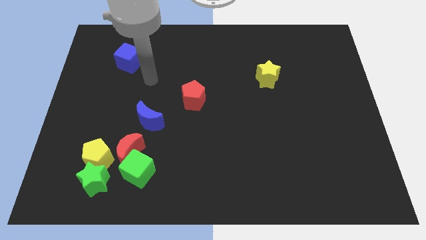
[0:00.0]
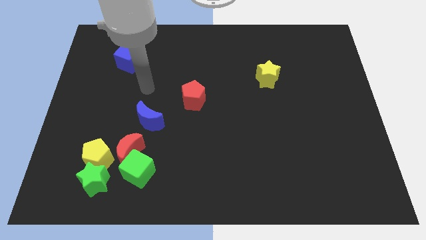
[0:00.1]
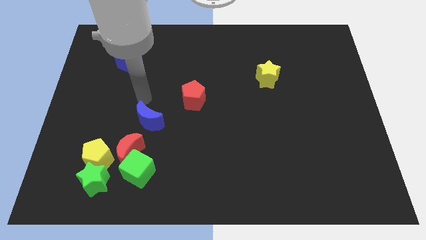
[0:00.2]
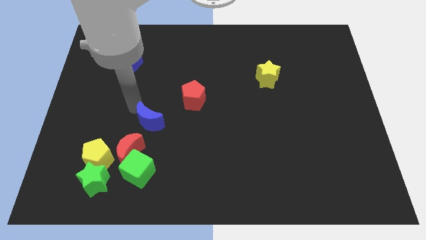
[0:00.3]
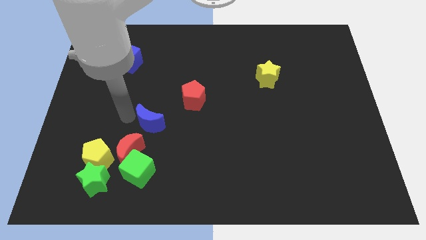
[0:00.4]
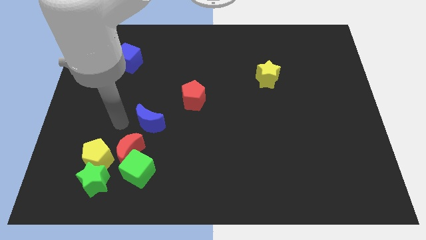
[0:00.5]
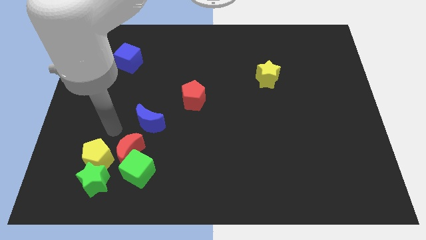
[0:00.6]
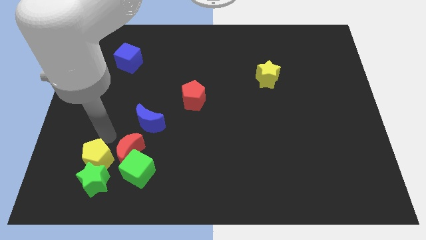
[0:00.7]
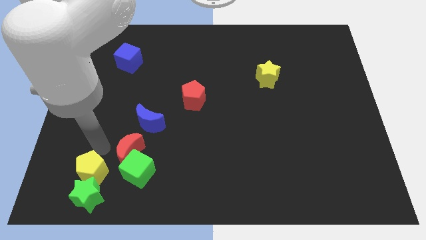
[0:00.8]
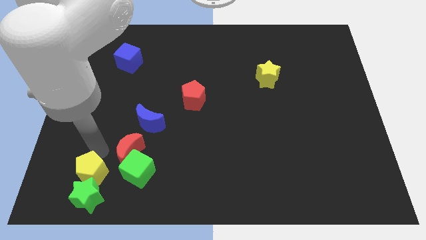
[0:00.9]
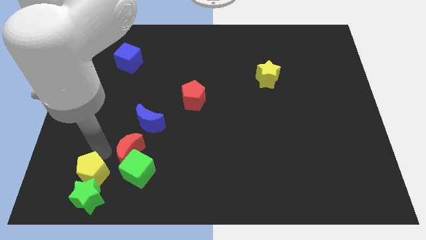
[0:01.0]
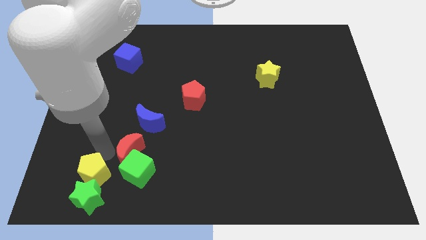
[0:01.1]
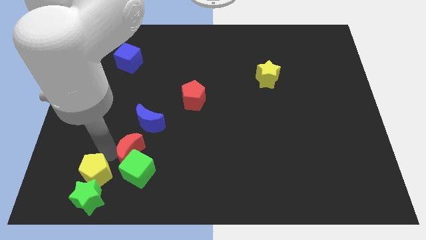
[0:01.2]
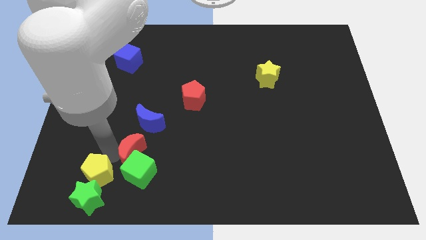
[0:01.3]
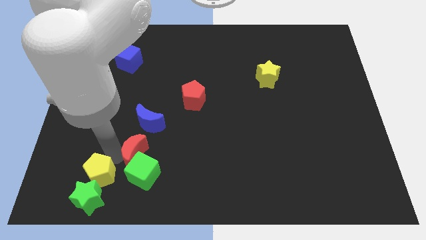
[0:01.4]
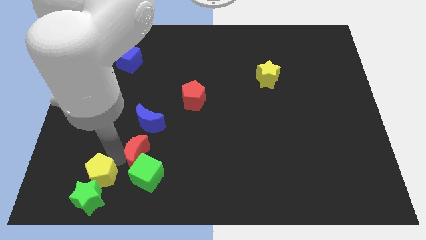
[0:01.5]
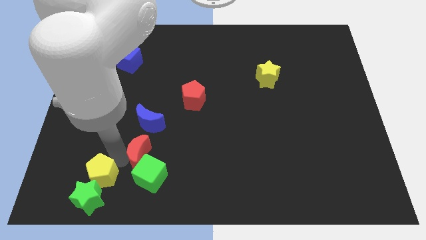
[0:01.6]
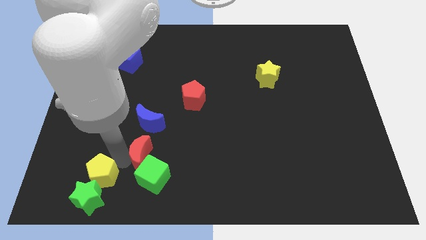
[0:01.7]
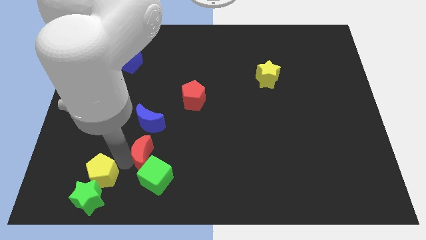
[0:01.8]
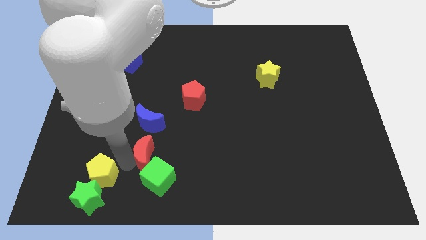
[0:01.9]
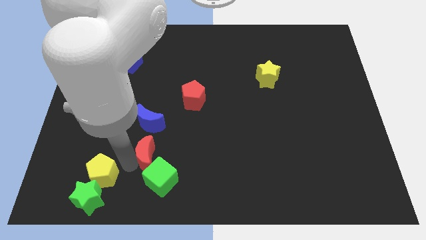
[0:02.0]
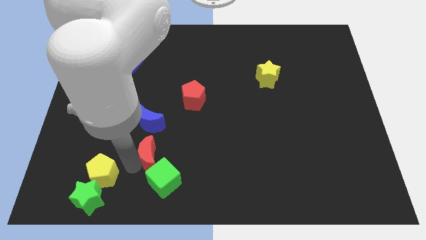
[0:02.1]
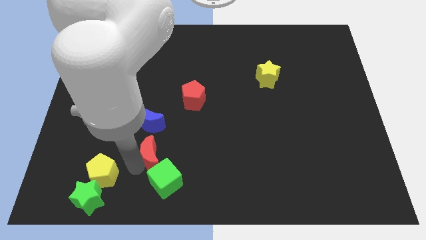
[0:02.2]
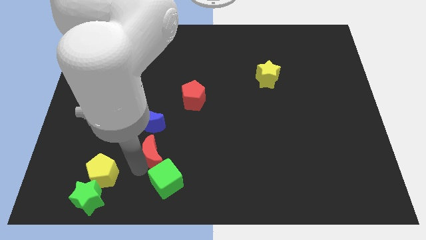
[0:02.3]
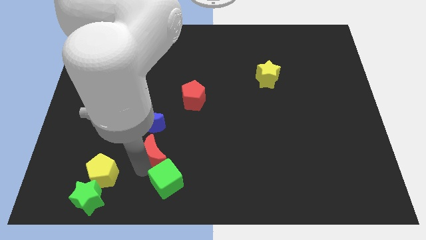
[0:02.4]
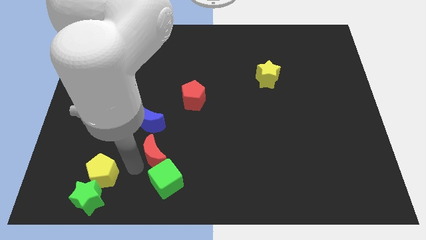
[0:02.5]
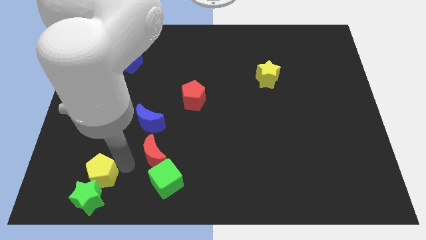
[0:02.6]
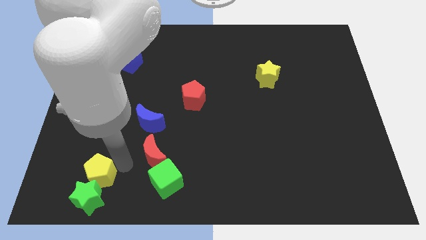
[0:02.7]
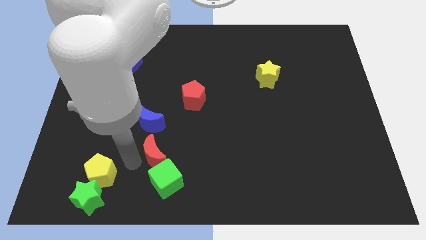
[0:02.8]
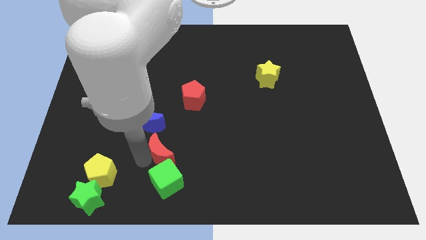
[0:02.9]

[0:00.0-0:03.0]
slightly push the red moon right

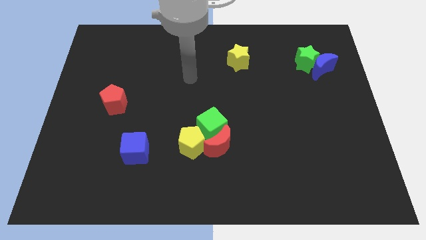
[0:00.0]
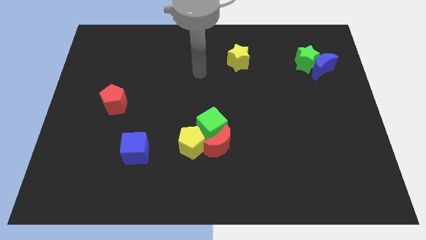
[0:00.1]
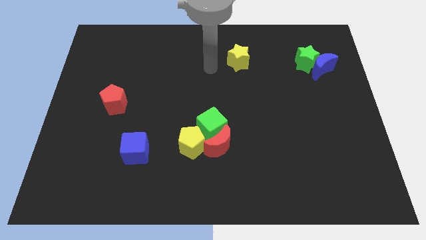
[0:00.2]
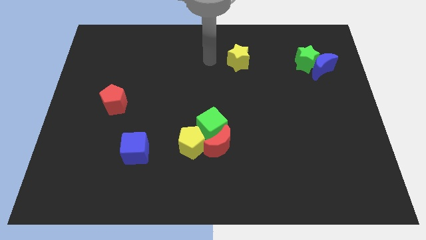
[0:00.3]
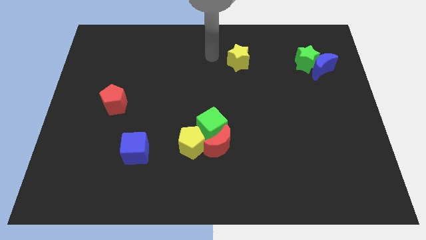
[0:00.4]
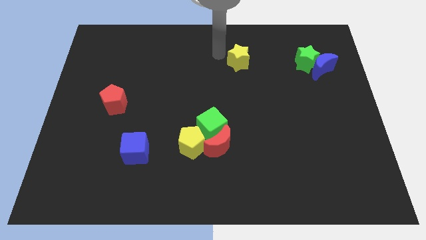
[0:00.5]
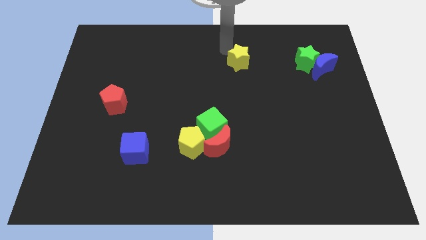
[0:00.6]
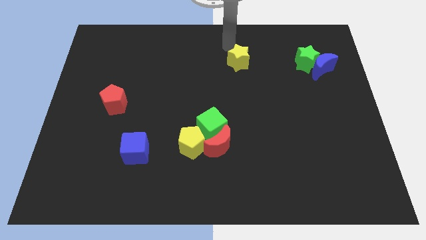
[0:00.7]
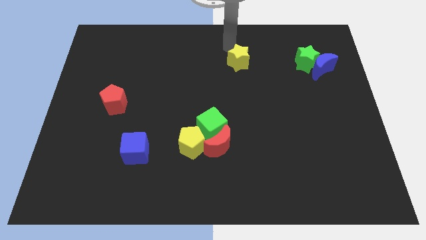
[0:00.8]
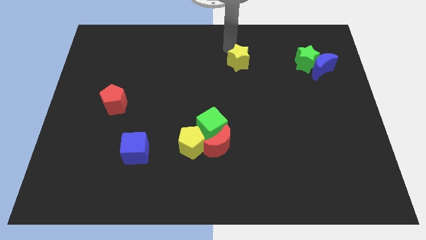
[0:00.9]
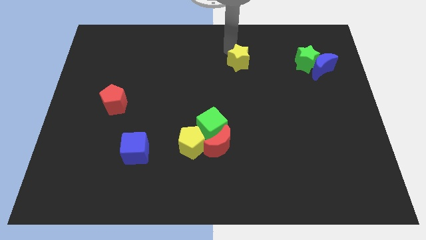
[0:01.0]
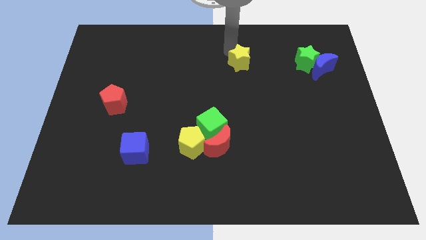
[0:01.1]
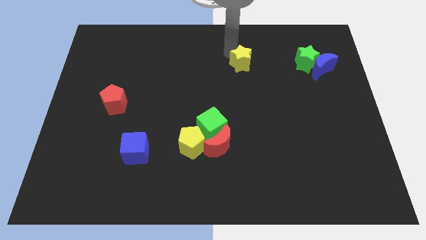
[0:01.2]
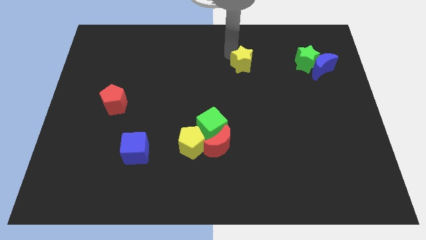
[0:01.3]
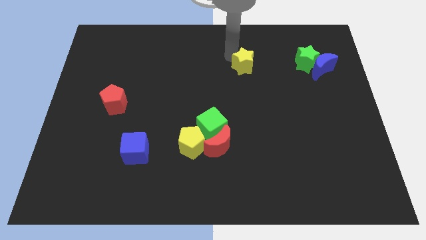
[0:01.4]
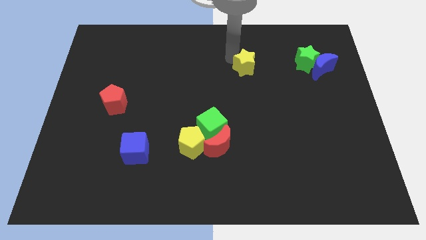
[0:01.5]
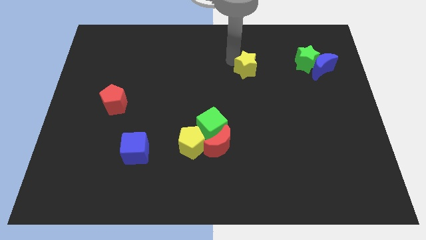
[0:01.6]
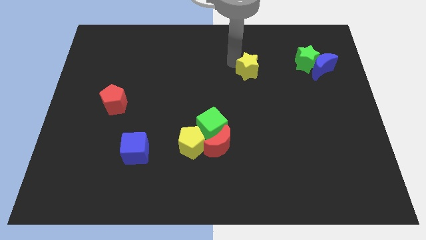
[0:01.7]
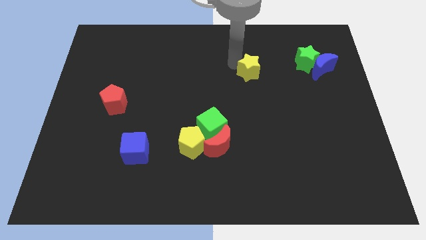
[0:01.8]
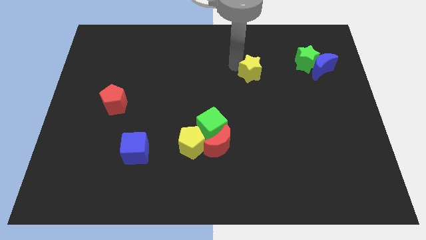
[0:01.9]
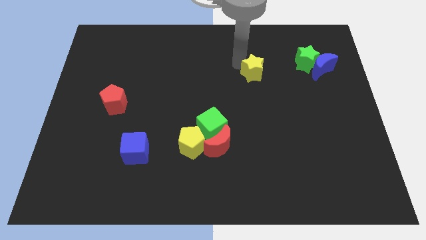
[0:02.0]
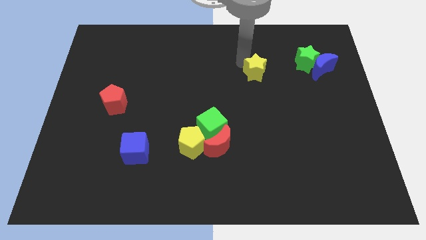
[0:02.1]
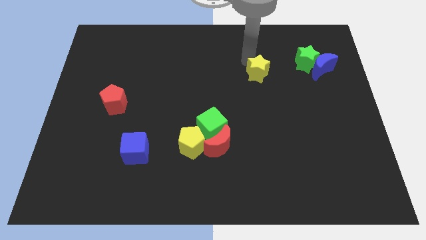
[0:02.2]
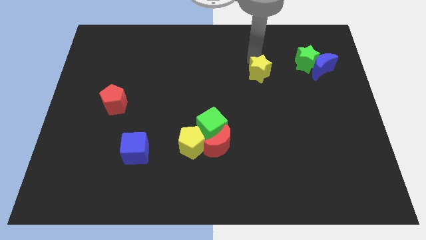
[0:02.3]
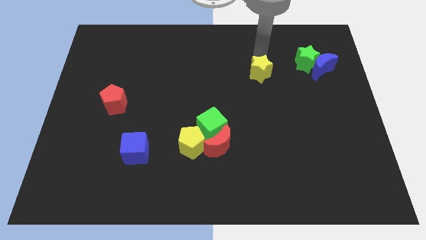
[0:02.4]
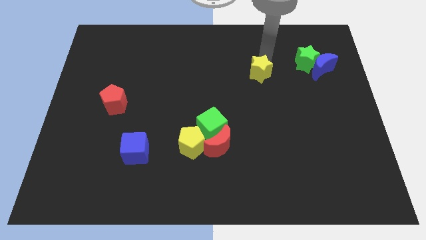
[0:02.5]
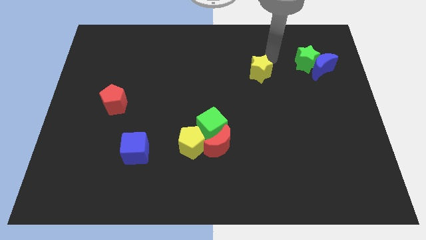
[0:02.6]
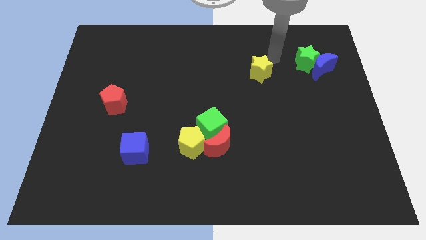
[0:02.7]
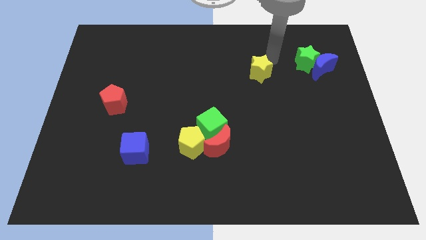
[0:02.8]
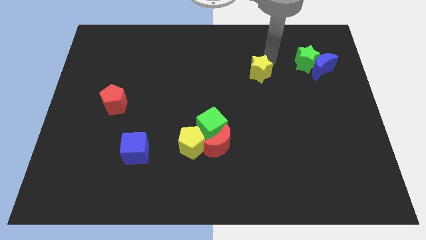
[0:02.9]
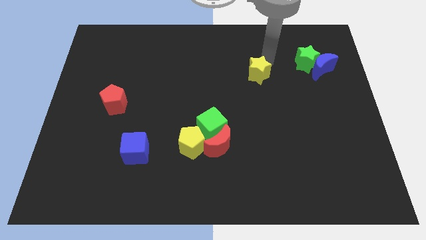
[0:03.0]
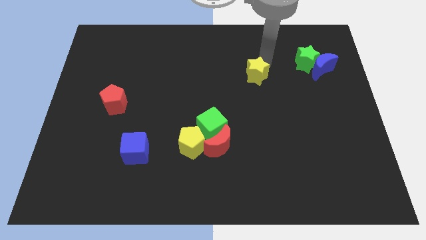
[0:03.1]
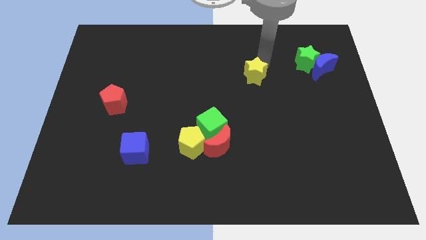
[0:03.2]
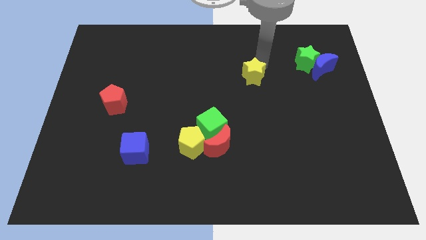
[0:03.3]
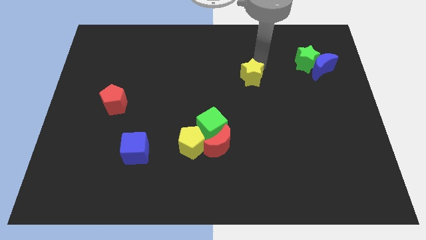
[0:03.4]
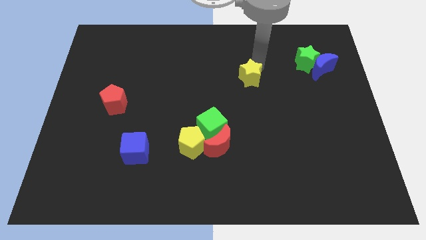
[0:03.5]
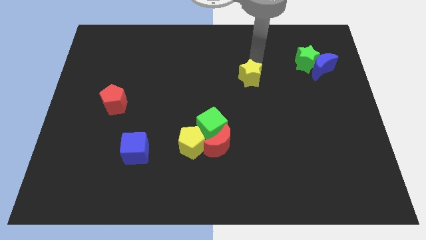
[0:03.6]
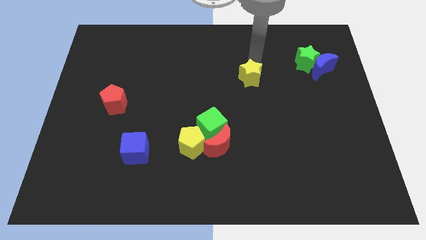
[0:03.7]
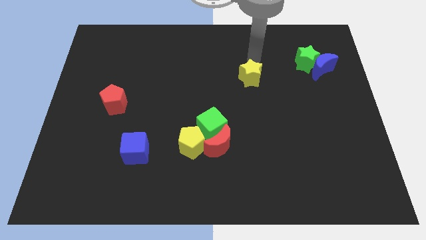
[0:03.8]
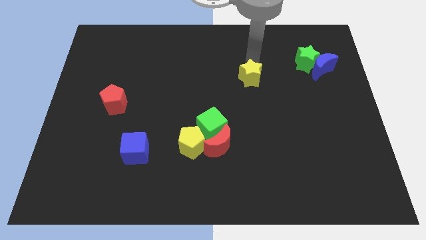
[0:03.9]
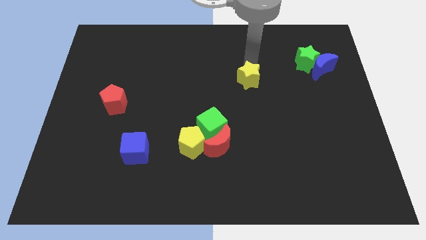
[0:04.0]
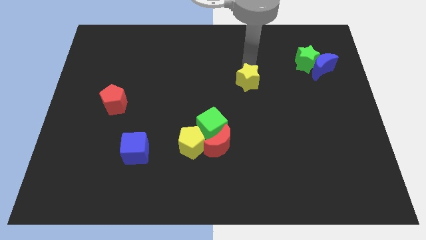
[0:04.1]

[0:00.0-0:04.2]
slightly push the yellow star down

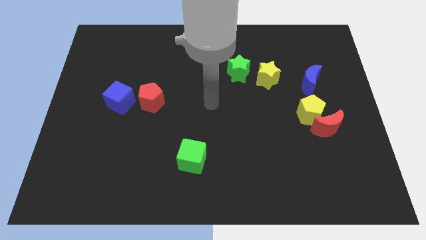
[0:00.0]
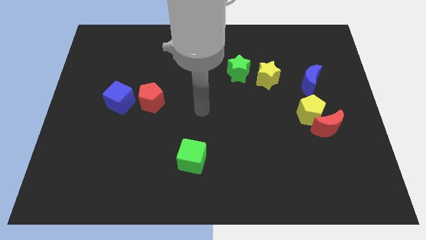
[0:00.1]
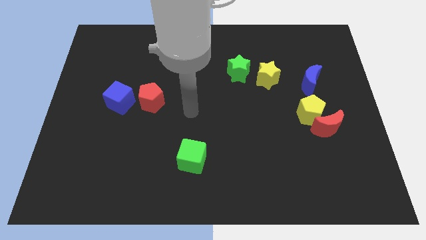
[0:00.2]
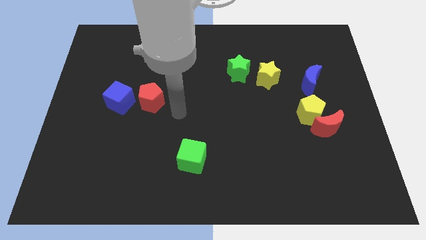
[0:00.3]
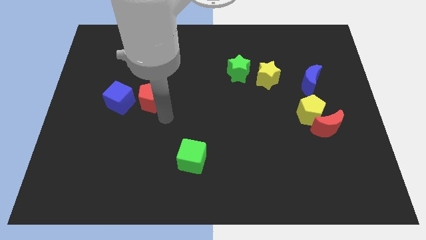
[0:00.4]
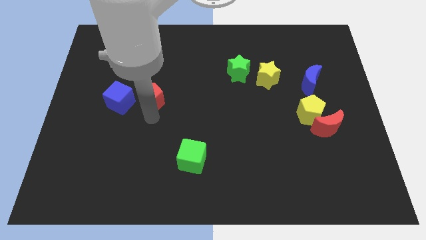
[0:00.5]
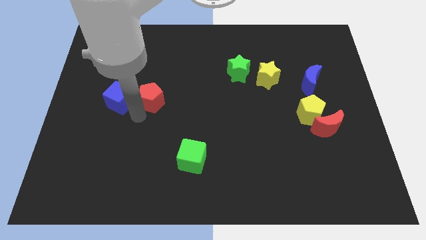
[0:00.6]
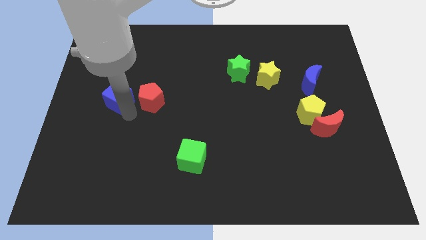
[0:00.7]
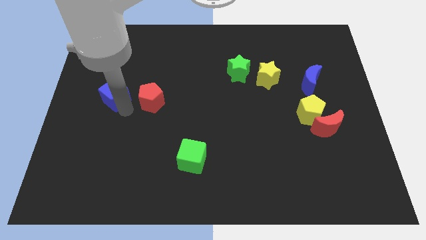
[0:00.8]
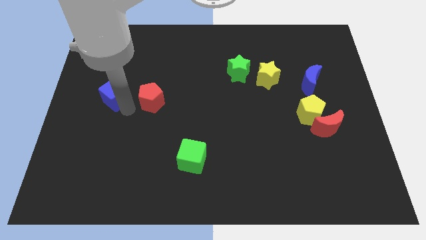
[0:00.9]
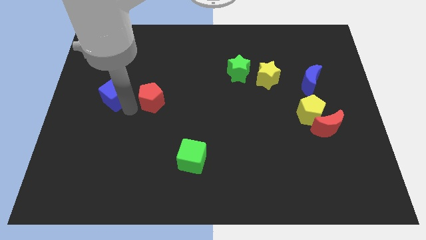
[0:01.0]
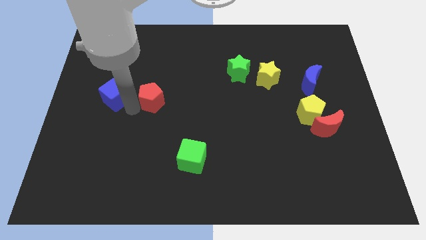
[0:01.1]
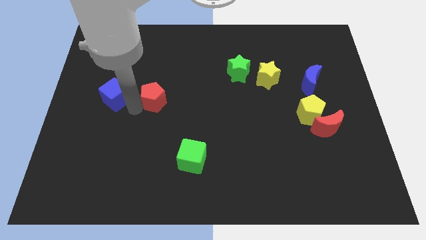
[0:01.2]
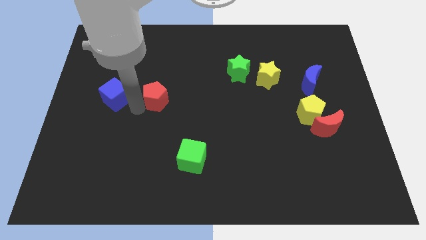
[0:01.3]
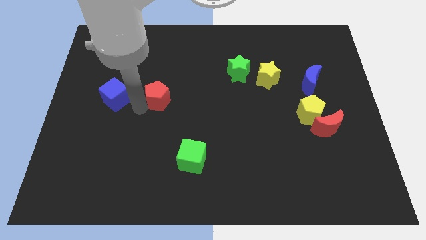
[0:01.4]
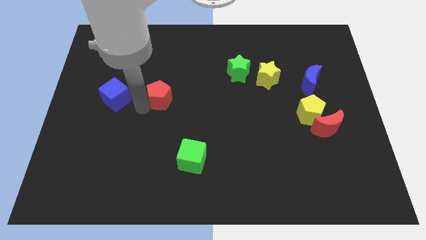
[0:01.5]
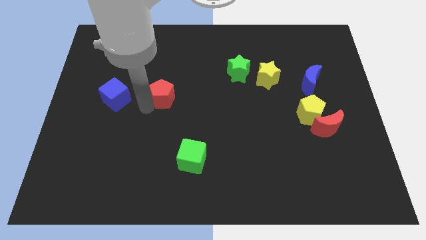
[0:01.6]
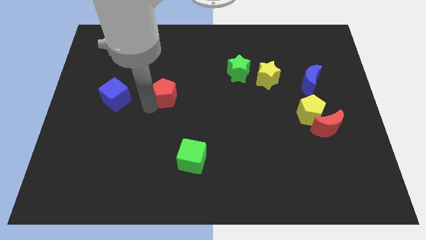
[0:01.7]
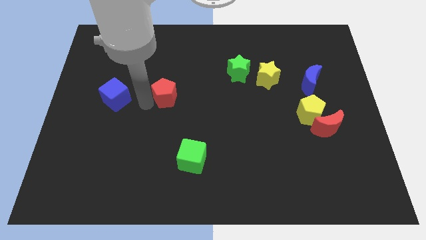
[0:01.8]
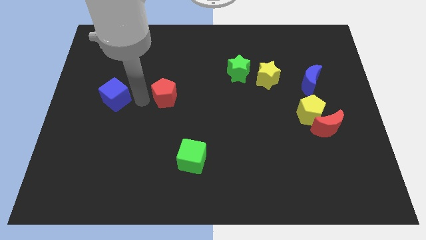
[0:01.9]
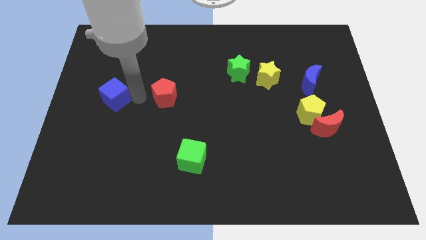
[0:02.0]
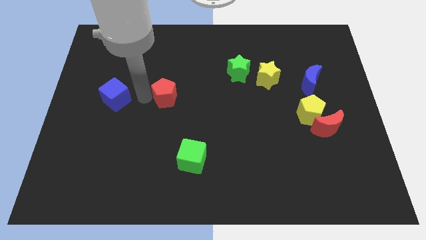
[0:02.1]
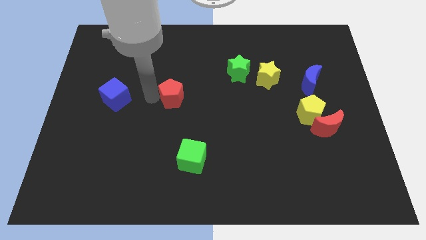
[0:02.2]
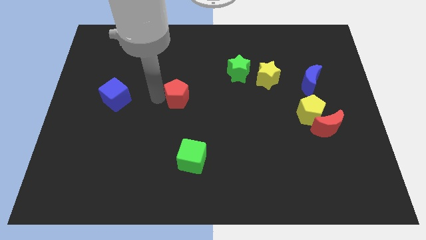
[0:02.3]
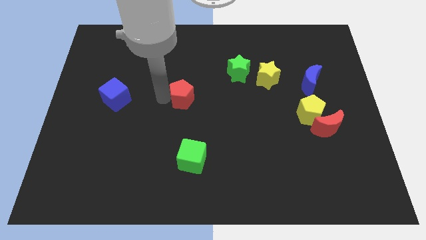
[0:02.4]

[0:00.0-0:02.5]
slide the red pentagon a bit to the right
